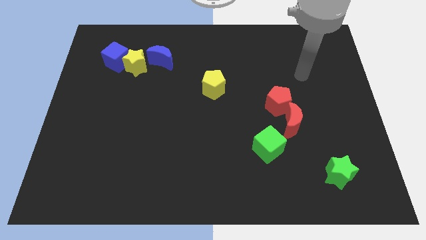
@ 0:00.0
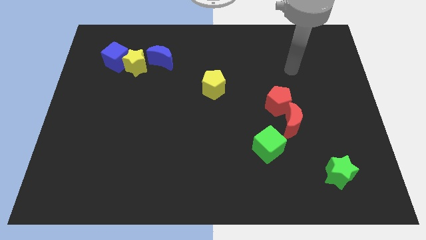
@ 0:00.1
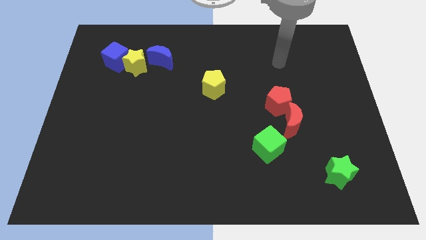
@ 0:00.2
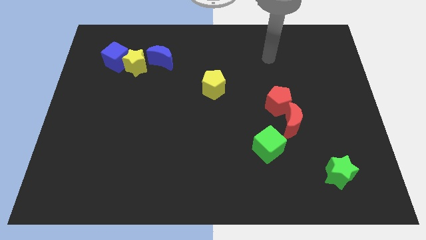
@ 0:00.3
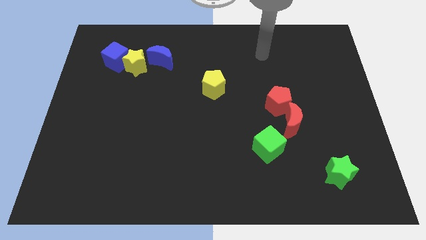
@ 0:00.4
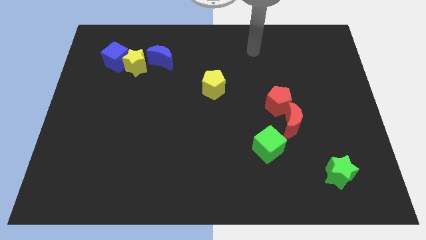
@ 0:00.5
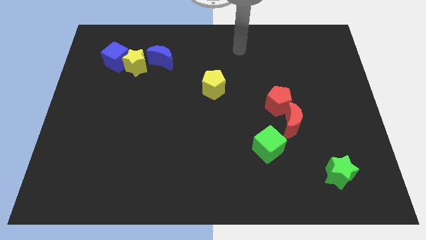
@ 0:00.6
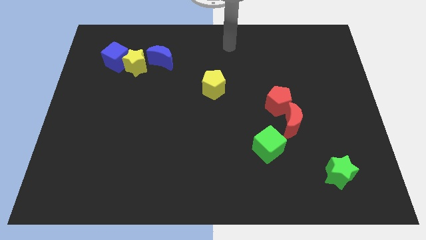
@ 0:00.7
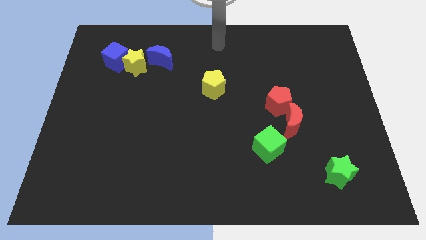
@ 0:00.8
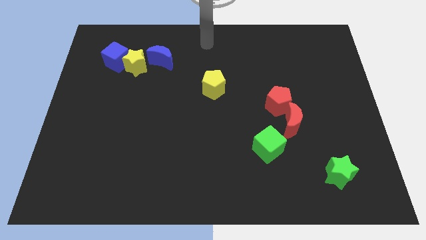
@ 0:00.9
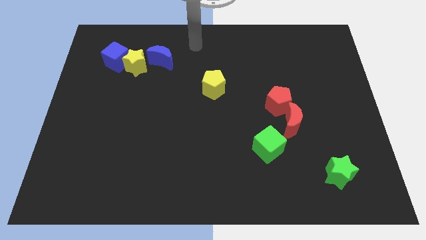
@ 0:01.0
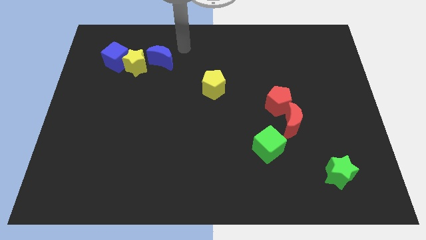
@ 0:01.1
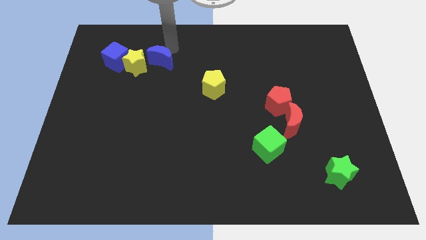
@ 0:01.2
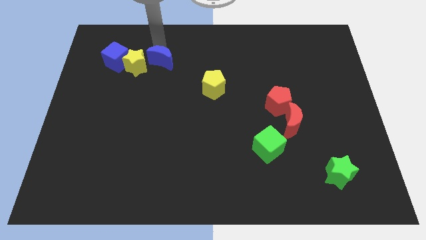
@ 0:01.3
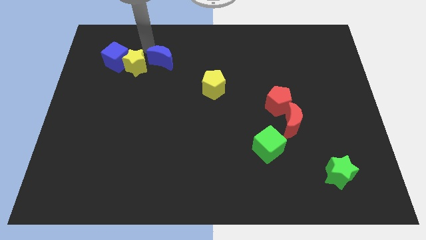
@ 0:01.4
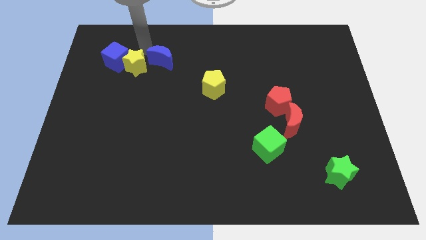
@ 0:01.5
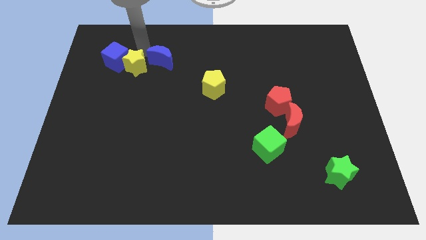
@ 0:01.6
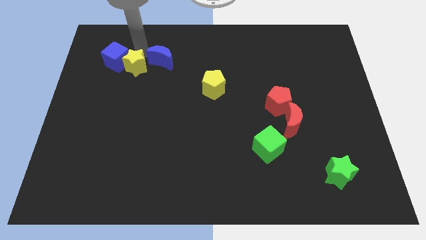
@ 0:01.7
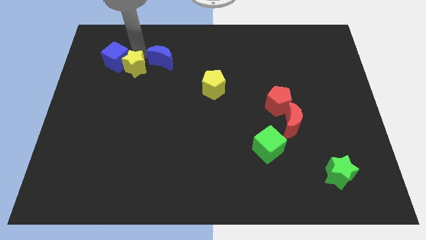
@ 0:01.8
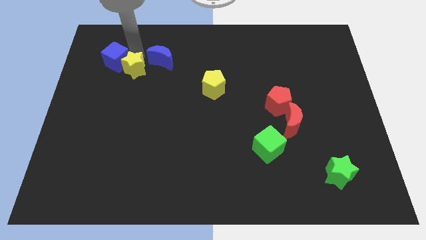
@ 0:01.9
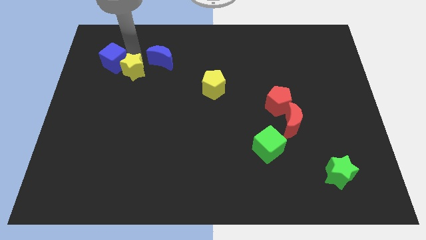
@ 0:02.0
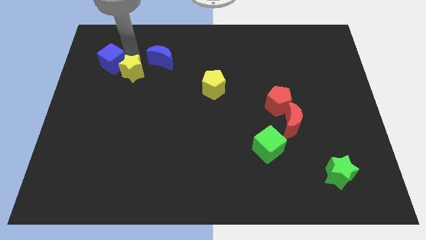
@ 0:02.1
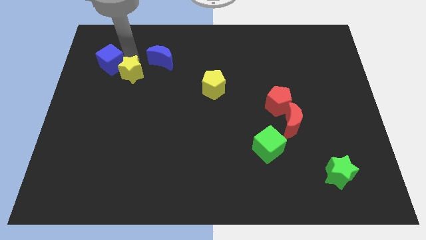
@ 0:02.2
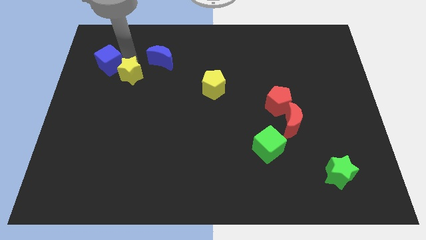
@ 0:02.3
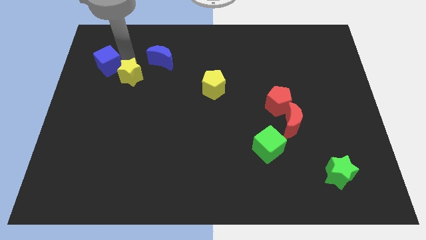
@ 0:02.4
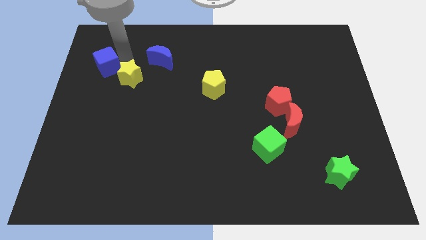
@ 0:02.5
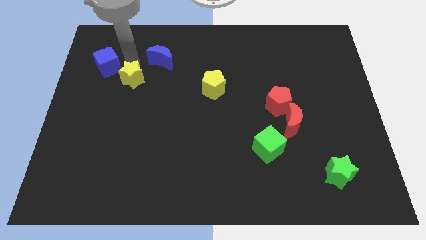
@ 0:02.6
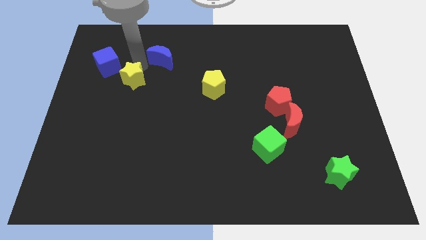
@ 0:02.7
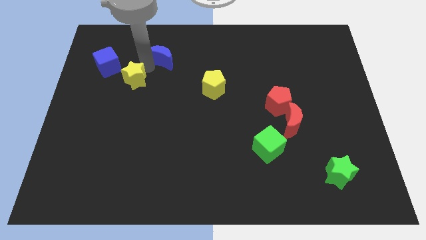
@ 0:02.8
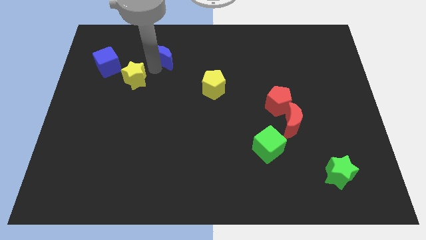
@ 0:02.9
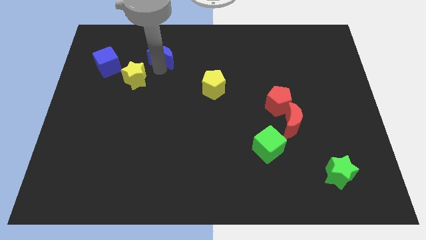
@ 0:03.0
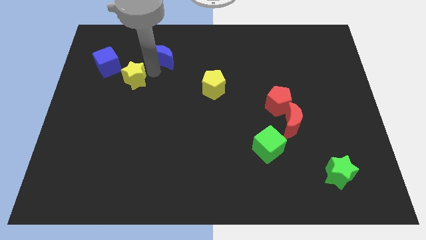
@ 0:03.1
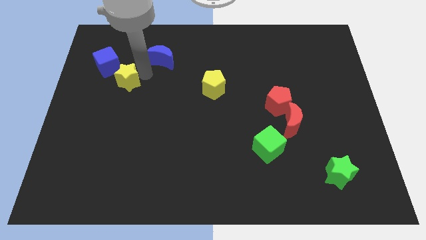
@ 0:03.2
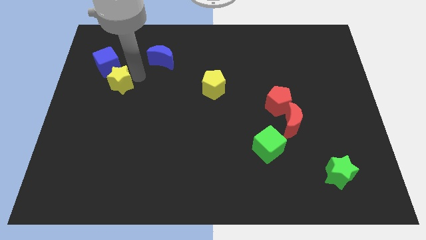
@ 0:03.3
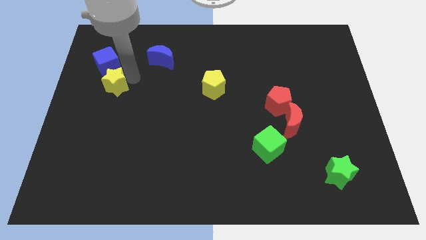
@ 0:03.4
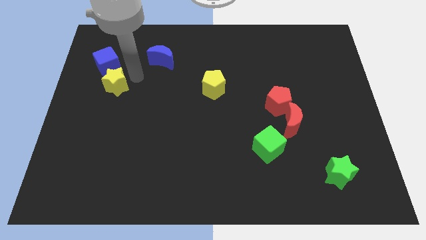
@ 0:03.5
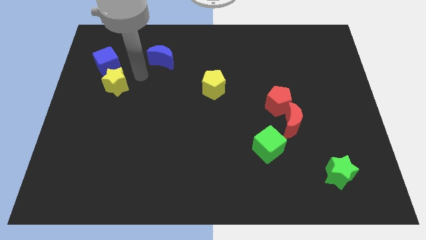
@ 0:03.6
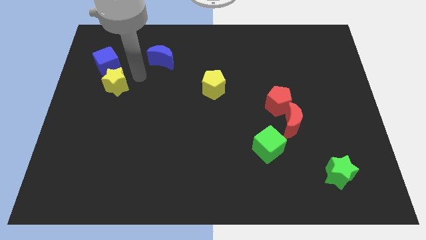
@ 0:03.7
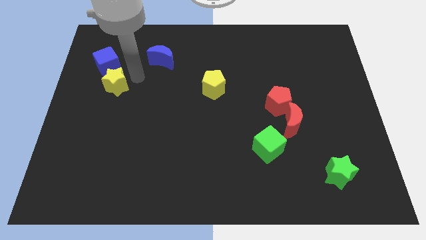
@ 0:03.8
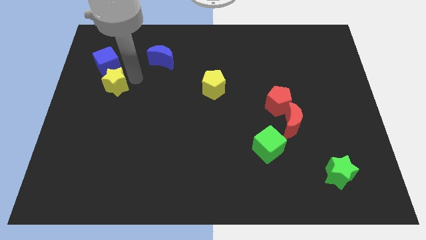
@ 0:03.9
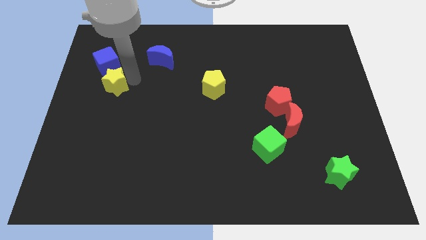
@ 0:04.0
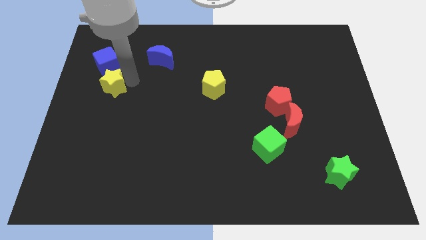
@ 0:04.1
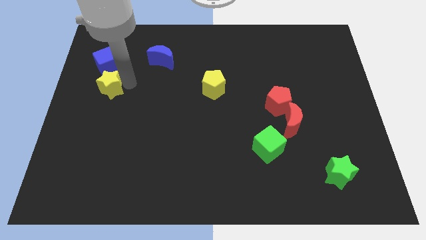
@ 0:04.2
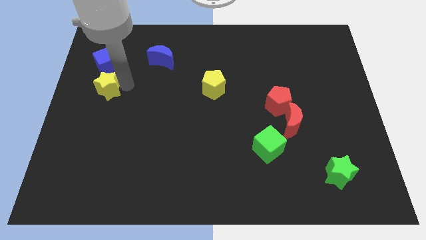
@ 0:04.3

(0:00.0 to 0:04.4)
move the yellow star to the center left

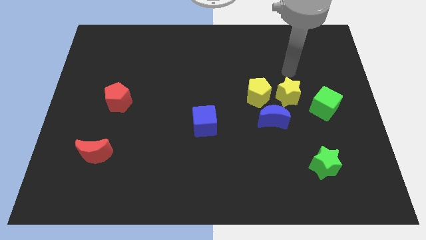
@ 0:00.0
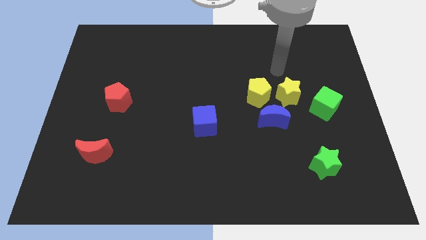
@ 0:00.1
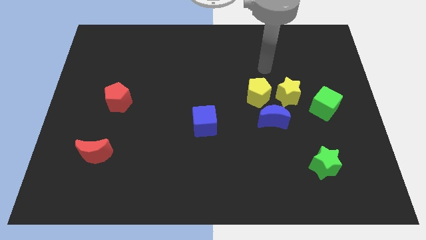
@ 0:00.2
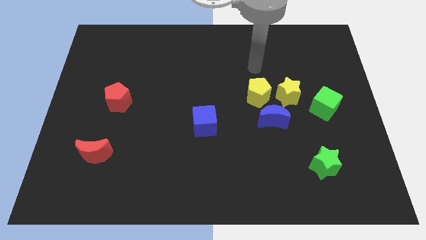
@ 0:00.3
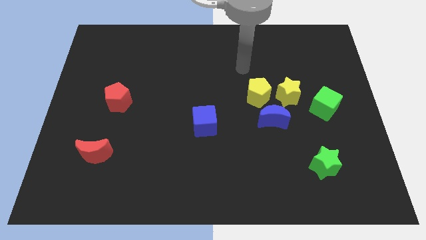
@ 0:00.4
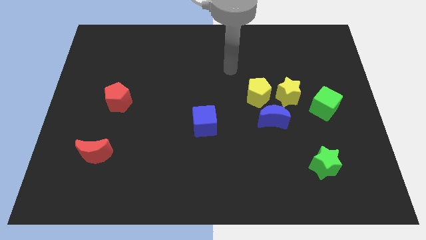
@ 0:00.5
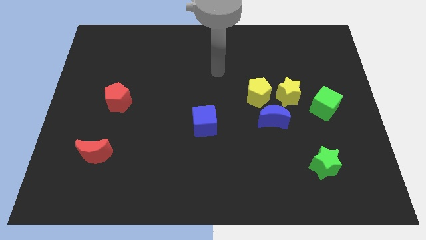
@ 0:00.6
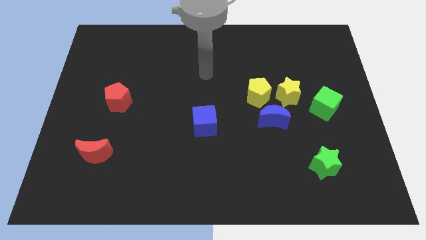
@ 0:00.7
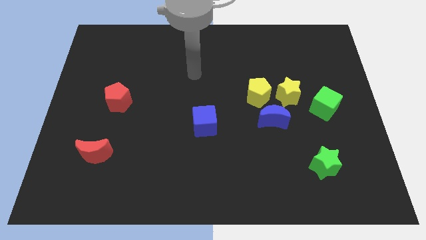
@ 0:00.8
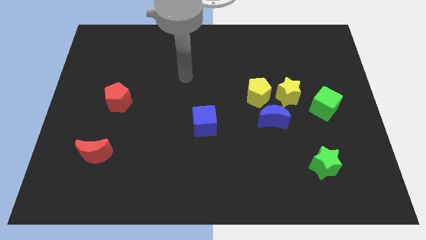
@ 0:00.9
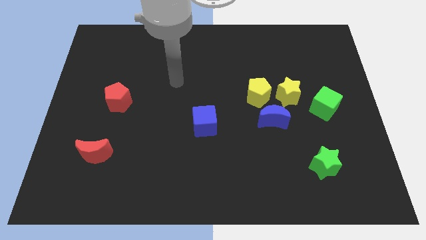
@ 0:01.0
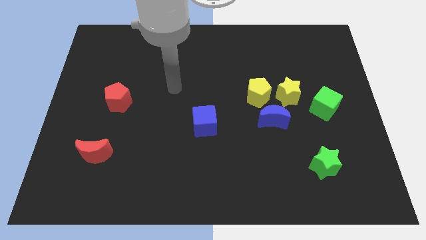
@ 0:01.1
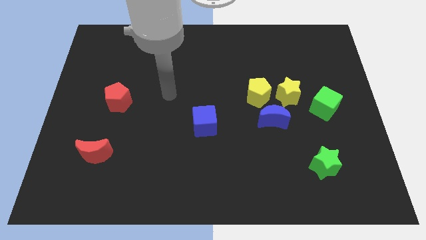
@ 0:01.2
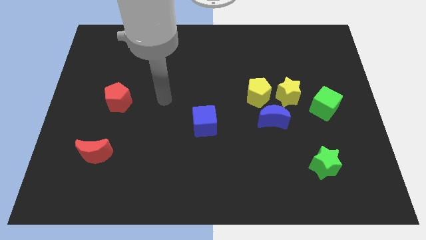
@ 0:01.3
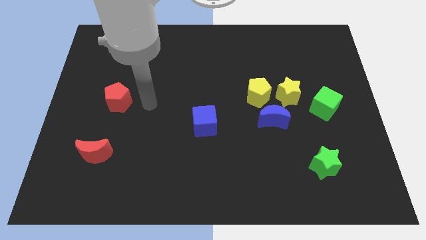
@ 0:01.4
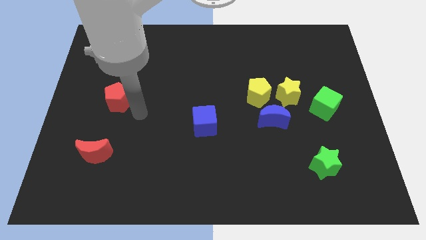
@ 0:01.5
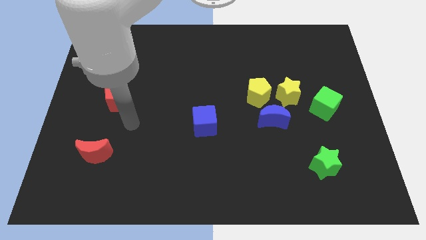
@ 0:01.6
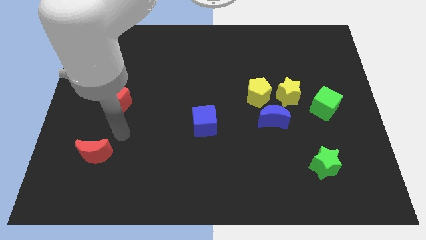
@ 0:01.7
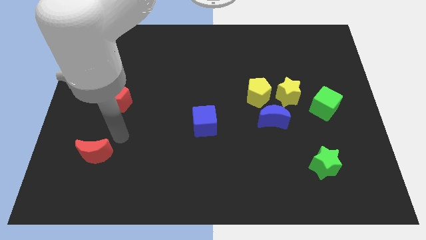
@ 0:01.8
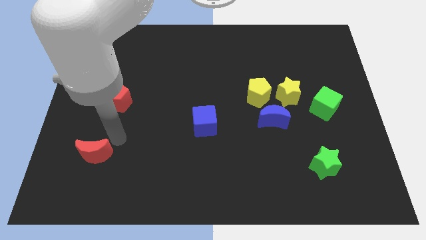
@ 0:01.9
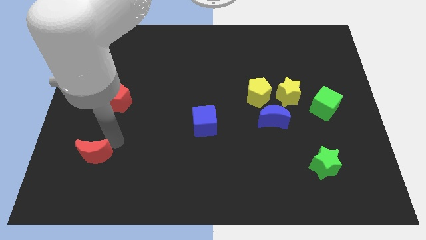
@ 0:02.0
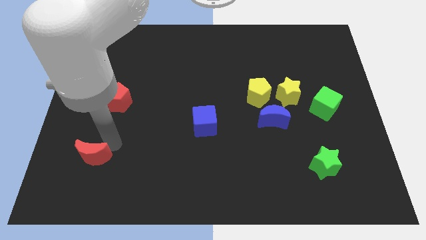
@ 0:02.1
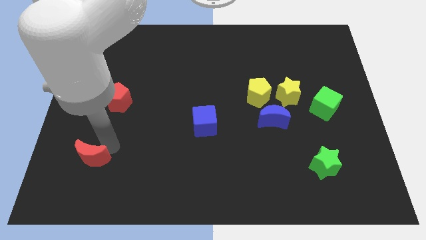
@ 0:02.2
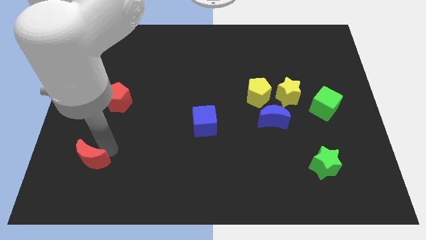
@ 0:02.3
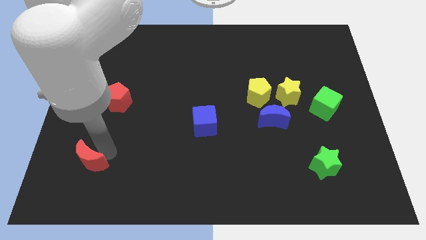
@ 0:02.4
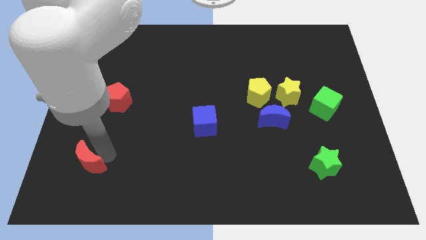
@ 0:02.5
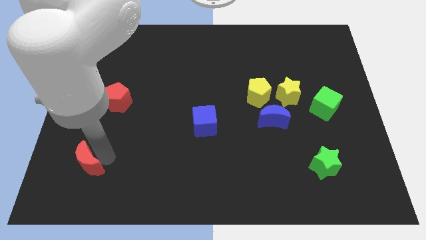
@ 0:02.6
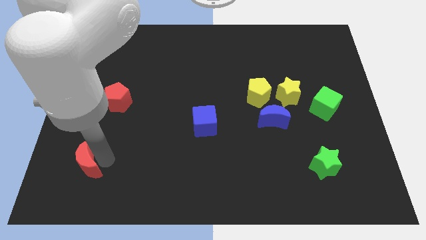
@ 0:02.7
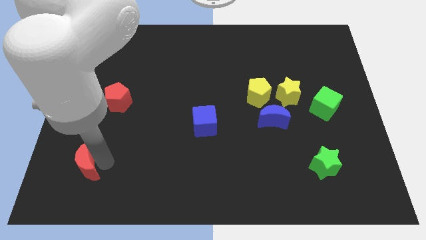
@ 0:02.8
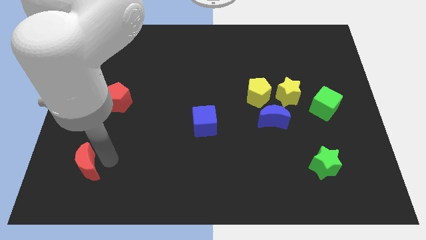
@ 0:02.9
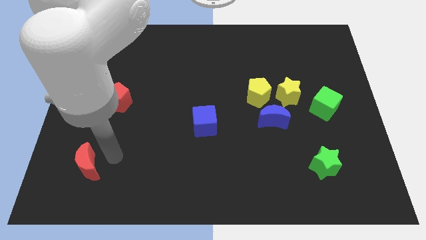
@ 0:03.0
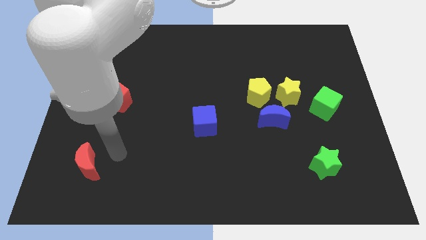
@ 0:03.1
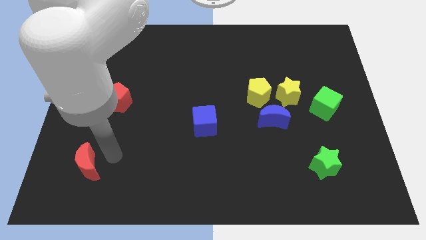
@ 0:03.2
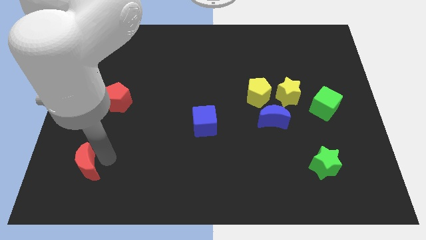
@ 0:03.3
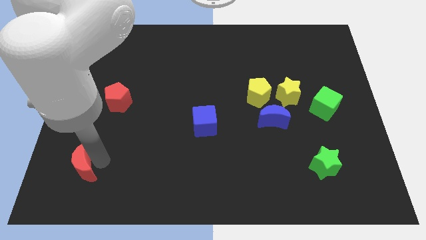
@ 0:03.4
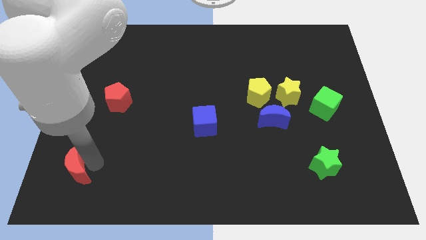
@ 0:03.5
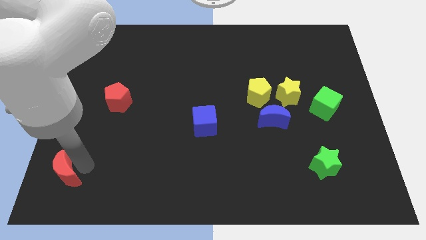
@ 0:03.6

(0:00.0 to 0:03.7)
move the red moon to the bottom left
